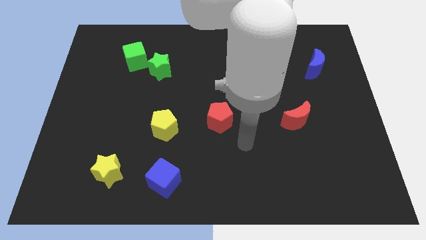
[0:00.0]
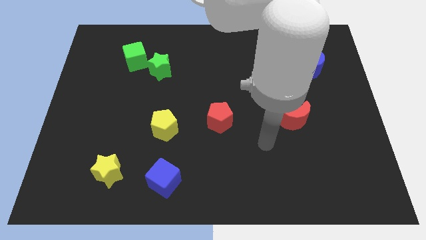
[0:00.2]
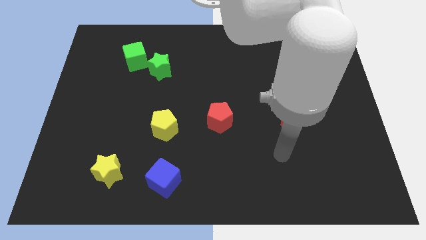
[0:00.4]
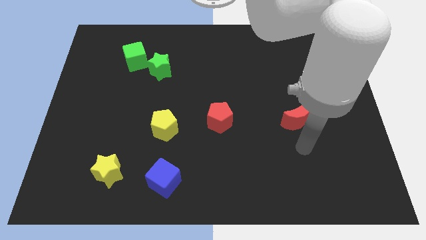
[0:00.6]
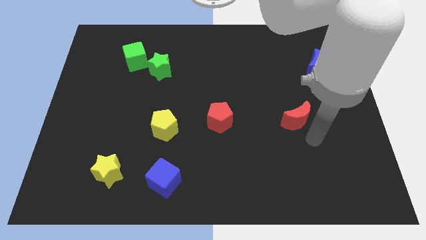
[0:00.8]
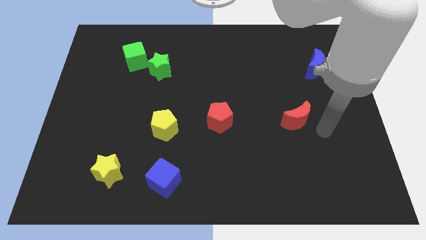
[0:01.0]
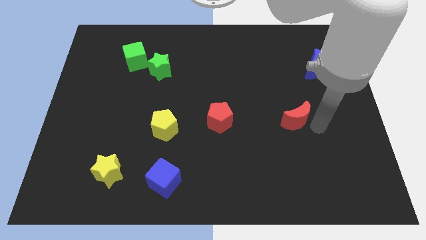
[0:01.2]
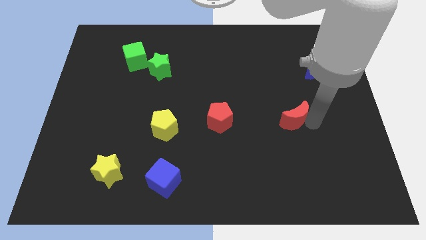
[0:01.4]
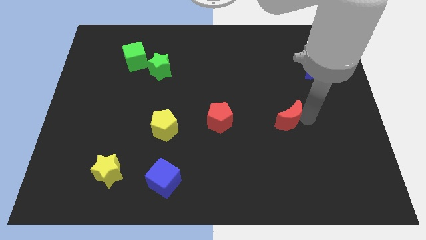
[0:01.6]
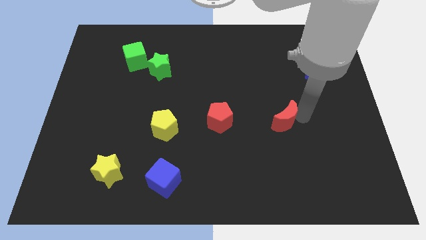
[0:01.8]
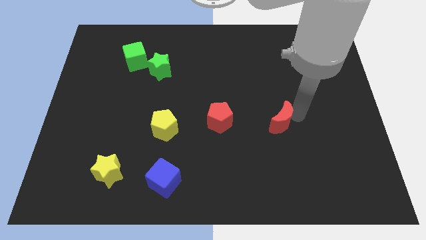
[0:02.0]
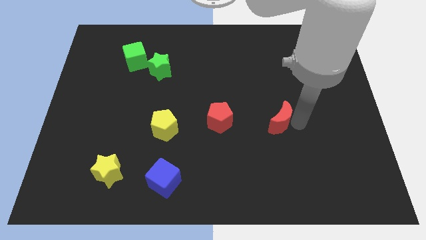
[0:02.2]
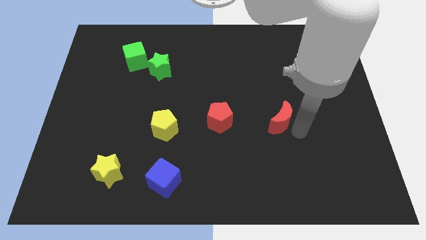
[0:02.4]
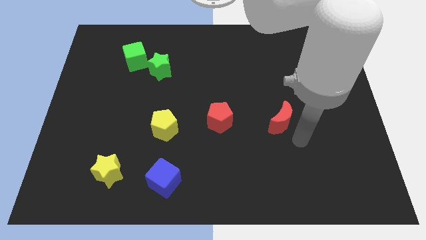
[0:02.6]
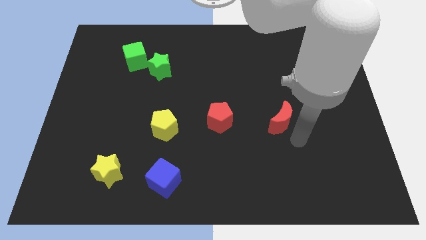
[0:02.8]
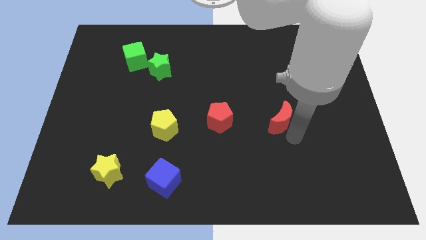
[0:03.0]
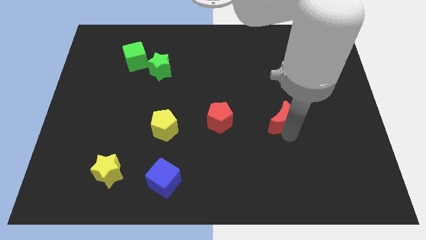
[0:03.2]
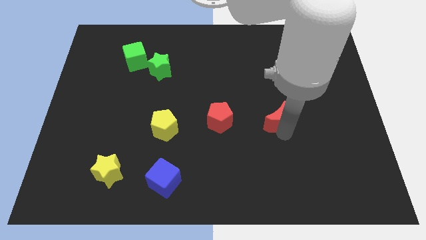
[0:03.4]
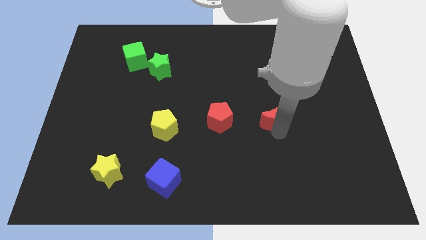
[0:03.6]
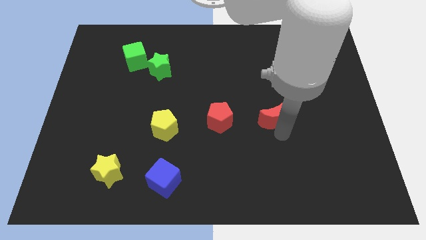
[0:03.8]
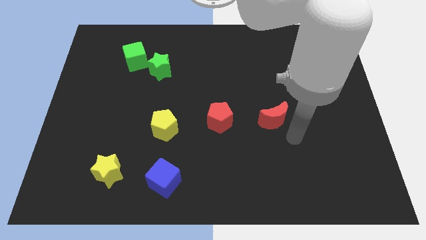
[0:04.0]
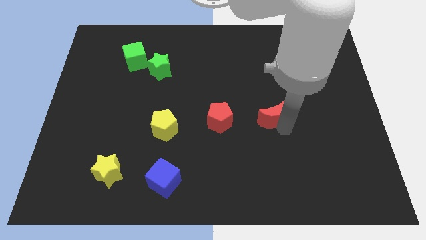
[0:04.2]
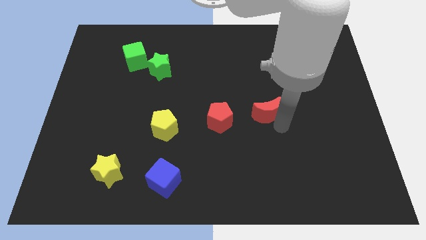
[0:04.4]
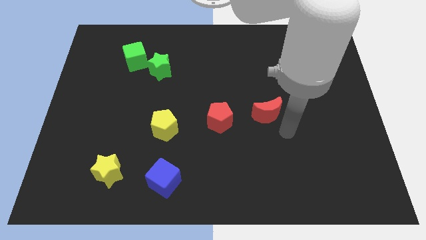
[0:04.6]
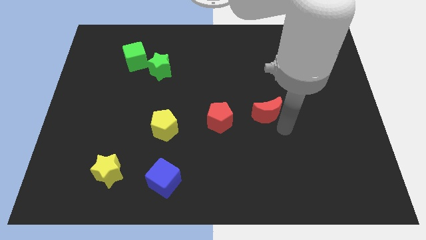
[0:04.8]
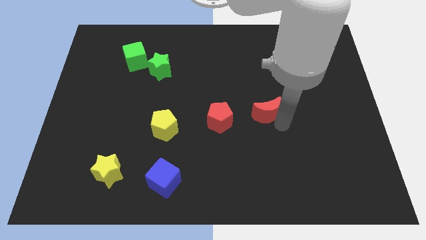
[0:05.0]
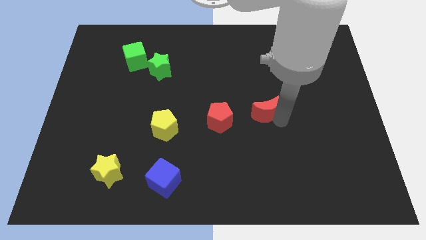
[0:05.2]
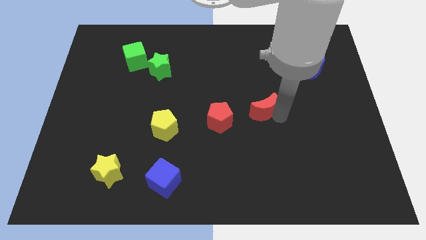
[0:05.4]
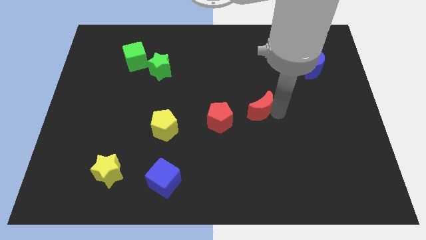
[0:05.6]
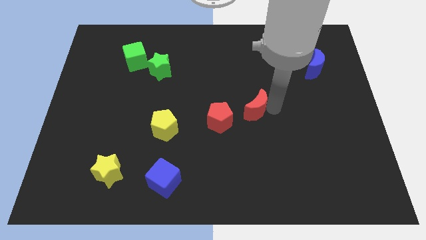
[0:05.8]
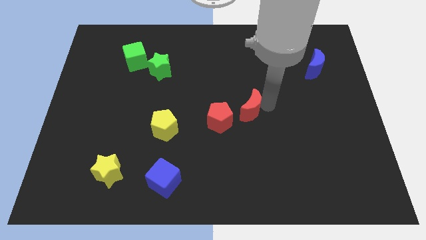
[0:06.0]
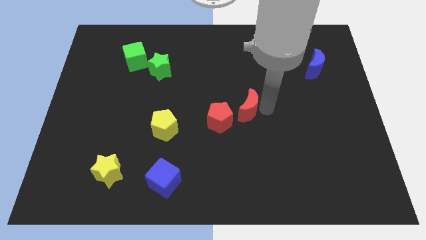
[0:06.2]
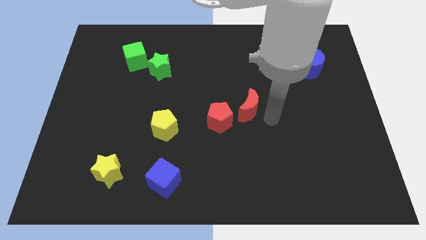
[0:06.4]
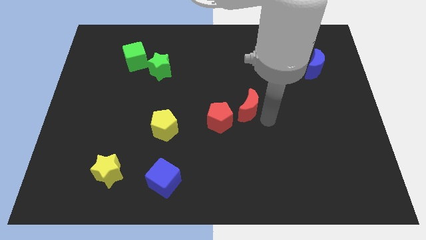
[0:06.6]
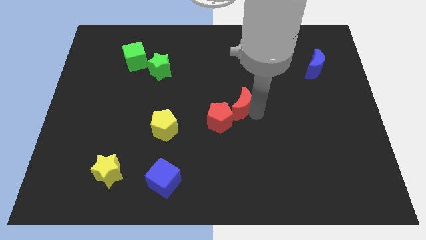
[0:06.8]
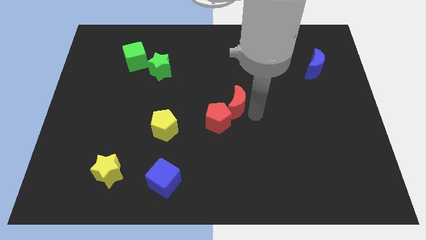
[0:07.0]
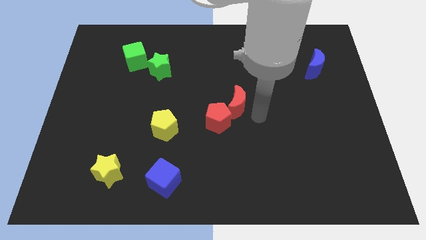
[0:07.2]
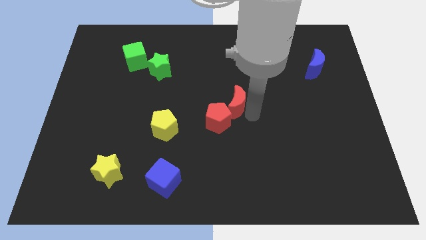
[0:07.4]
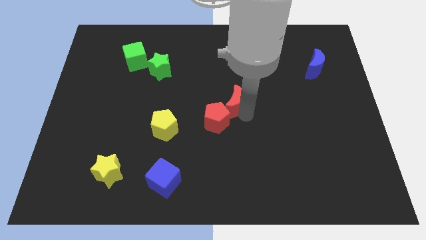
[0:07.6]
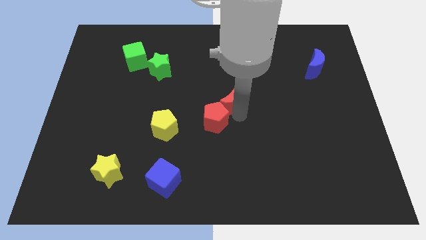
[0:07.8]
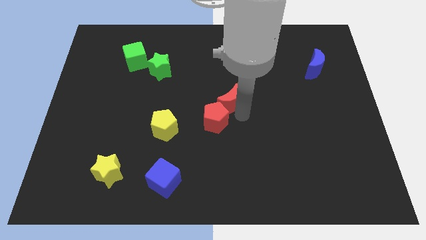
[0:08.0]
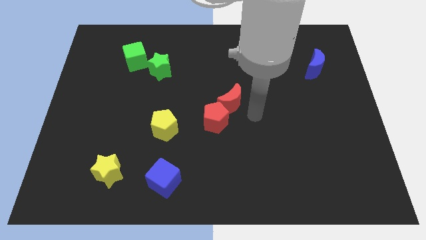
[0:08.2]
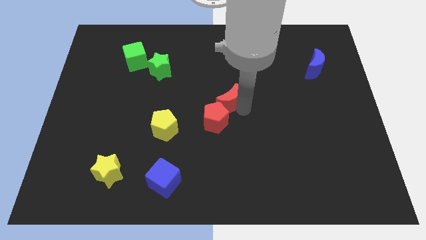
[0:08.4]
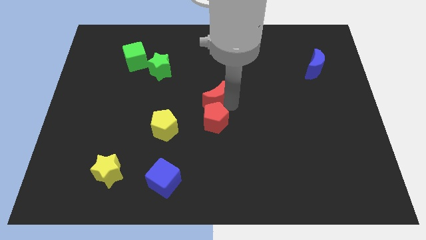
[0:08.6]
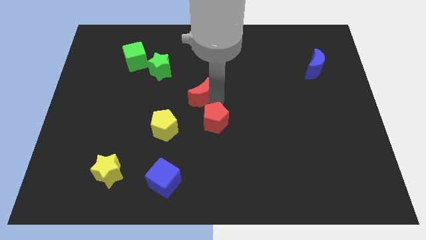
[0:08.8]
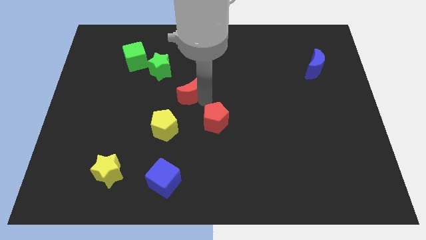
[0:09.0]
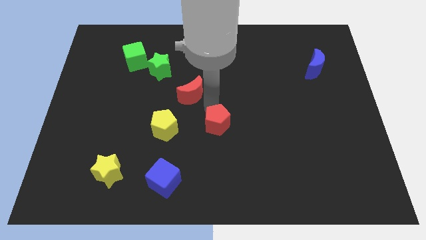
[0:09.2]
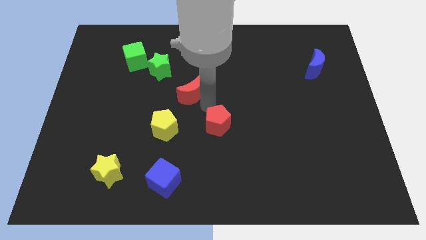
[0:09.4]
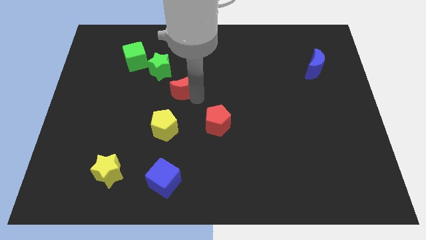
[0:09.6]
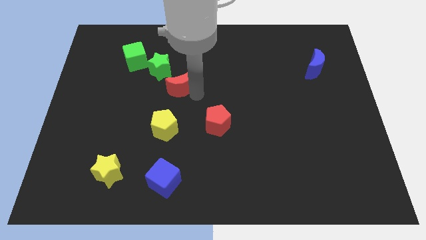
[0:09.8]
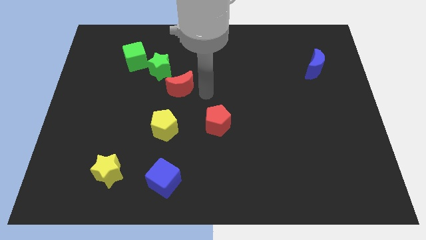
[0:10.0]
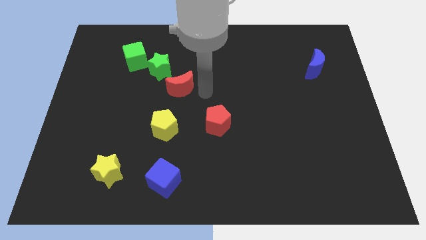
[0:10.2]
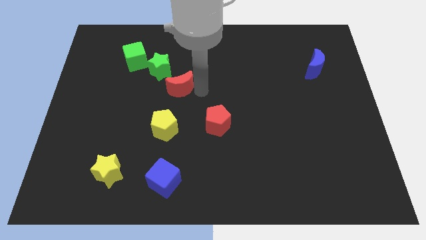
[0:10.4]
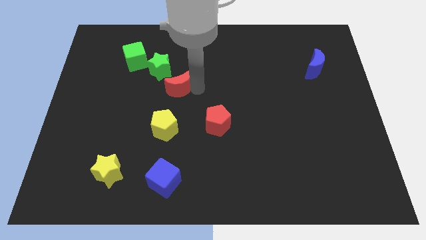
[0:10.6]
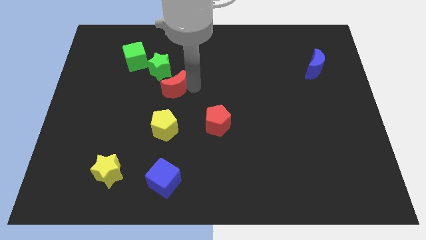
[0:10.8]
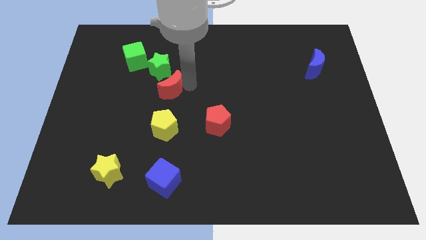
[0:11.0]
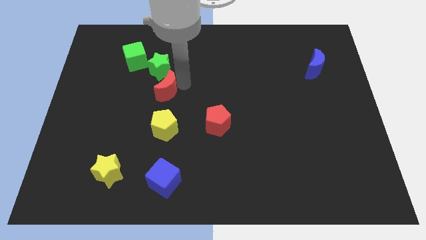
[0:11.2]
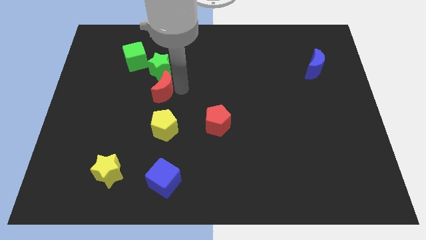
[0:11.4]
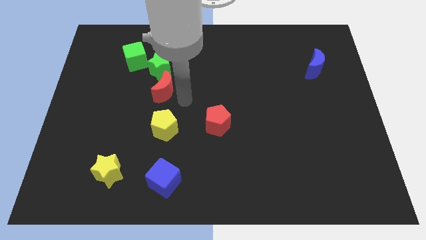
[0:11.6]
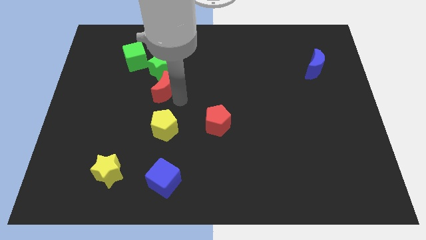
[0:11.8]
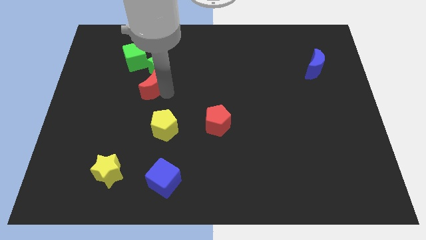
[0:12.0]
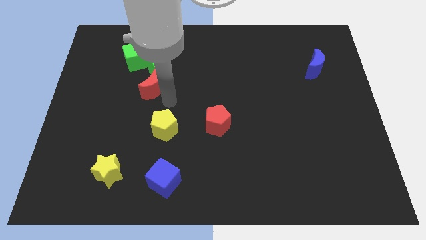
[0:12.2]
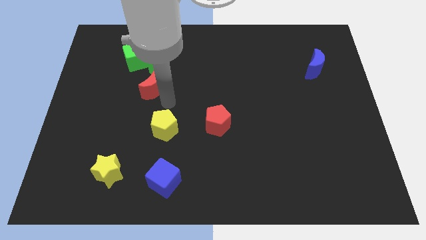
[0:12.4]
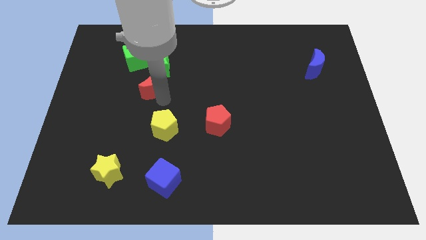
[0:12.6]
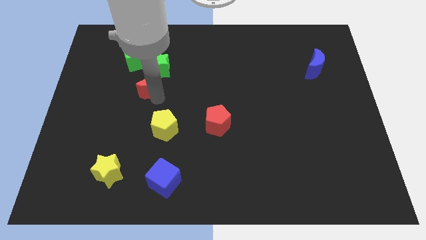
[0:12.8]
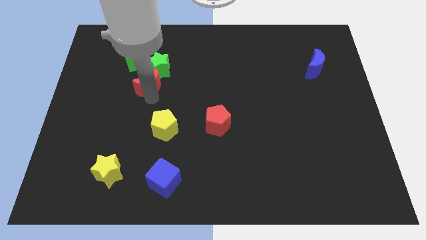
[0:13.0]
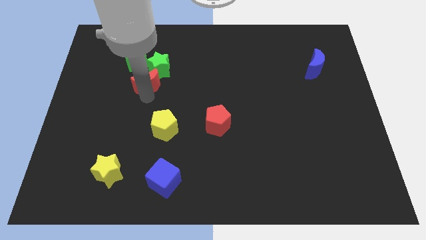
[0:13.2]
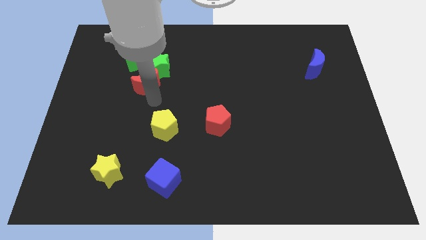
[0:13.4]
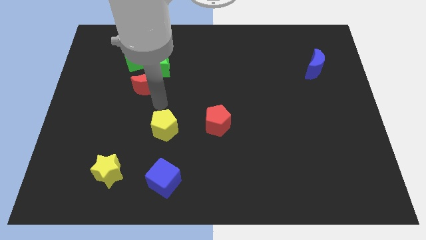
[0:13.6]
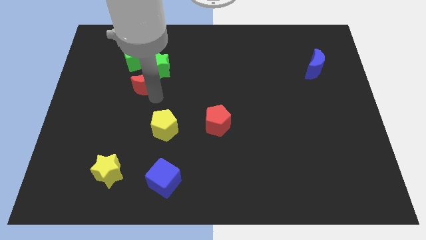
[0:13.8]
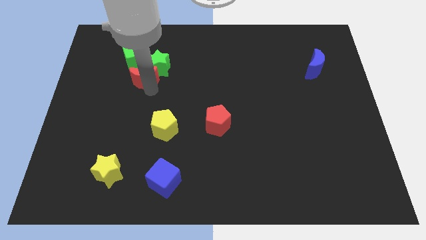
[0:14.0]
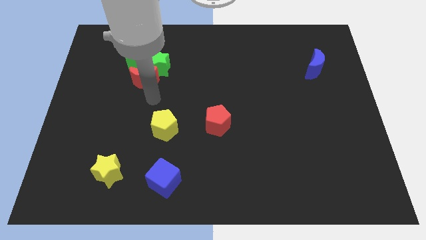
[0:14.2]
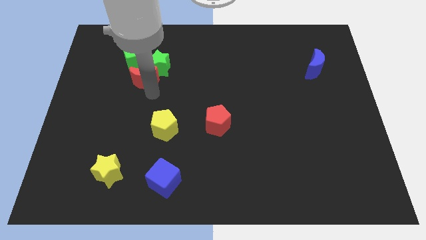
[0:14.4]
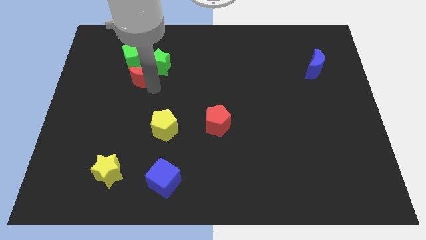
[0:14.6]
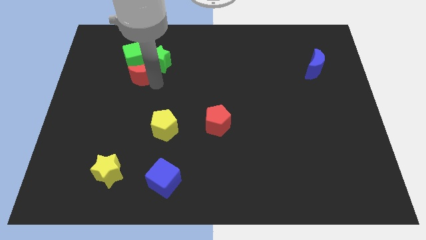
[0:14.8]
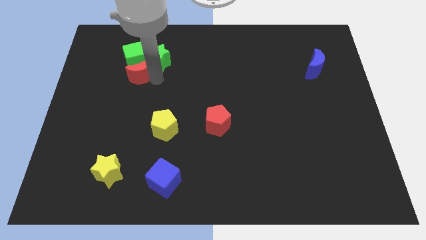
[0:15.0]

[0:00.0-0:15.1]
move the red moon to the green cube
